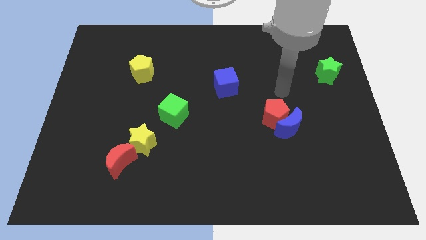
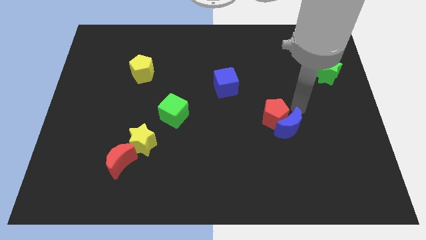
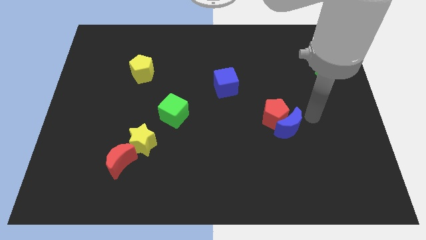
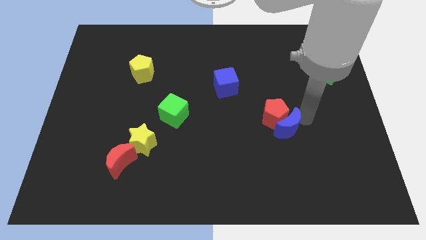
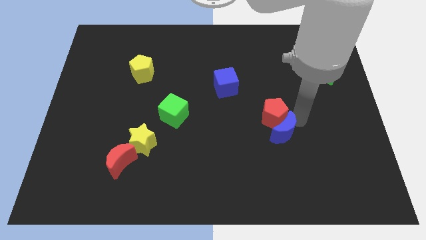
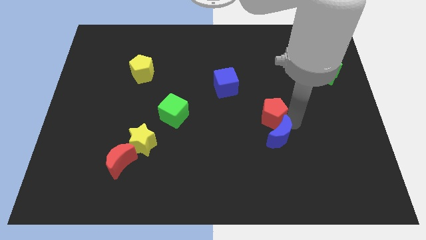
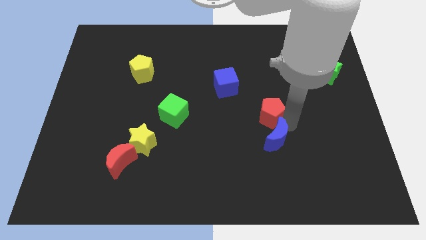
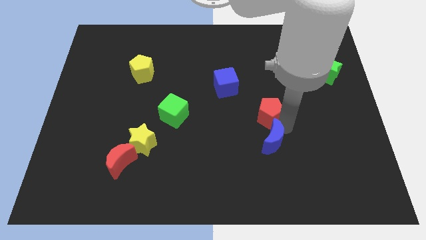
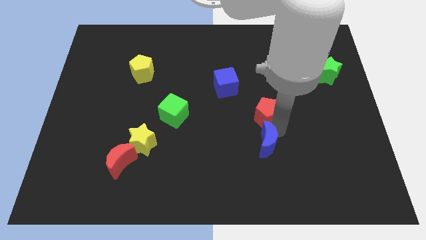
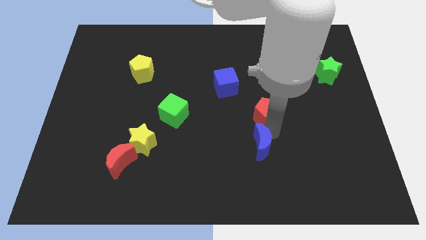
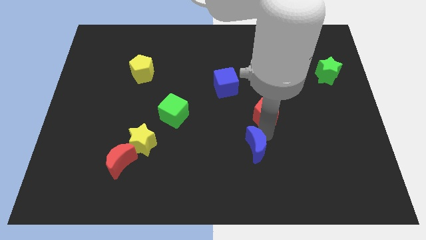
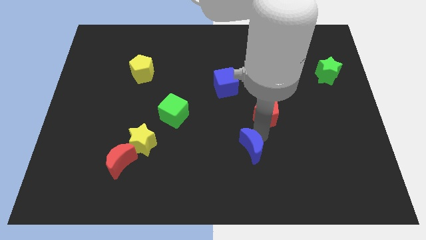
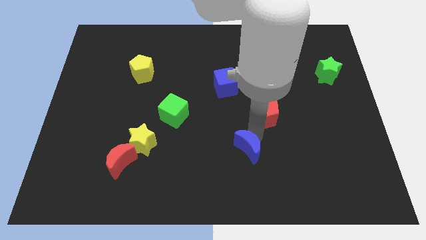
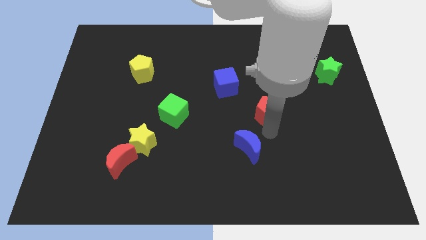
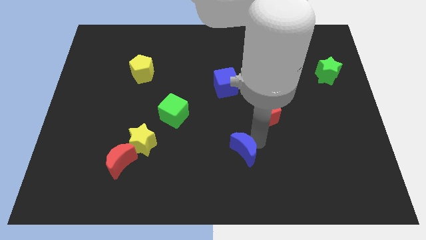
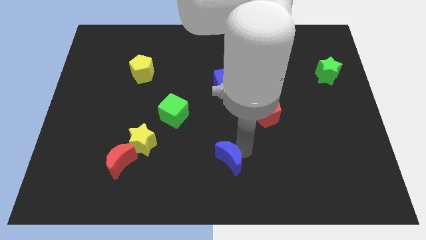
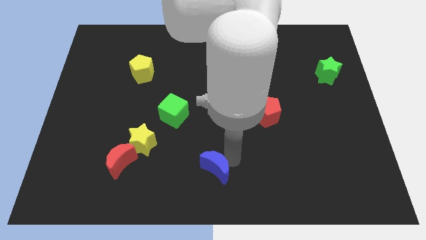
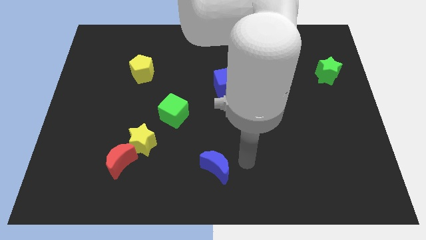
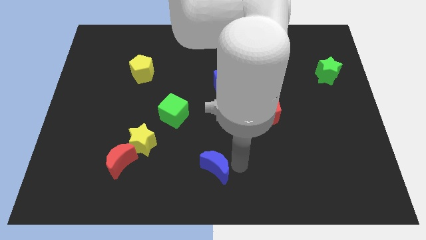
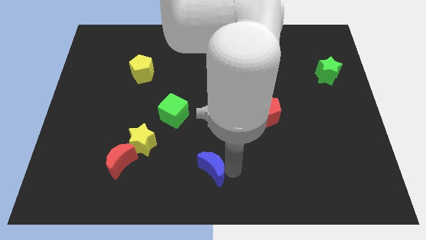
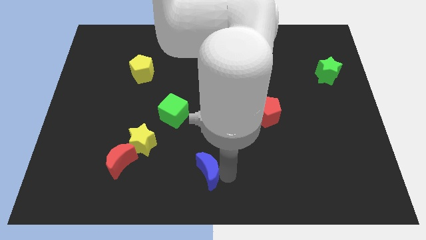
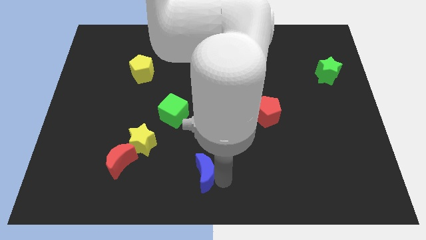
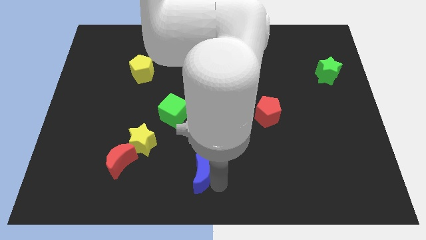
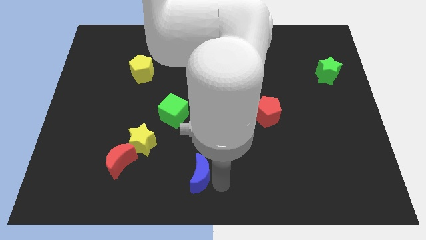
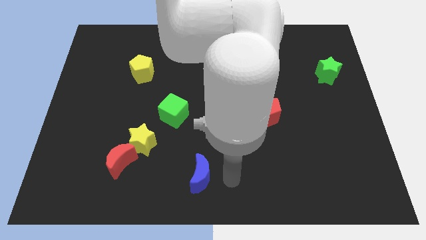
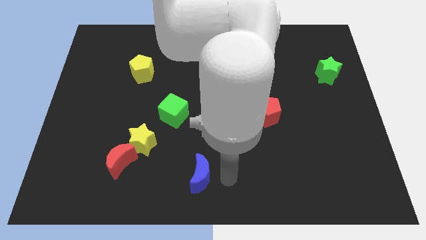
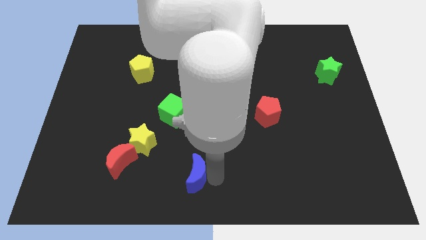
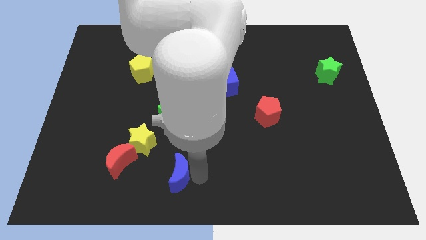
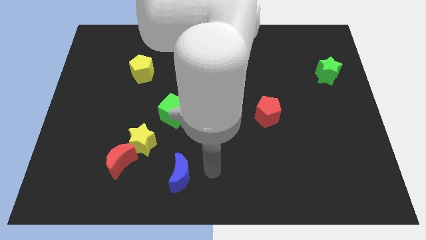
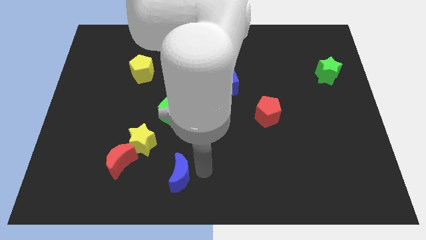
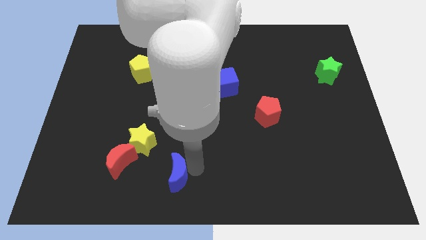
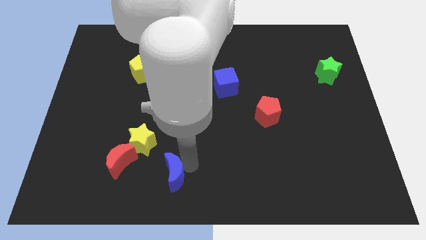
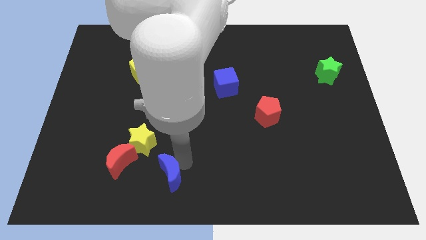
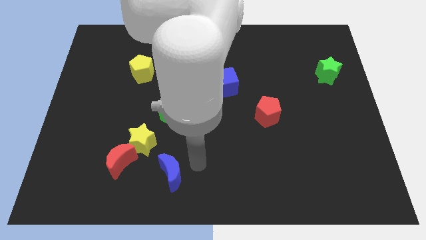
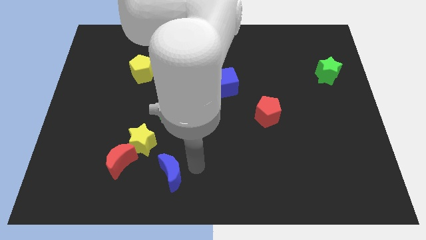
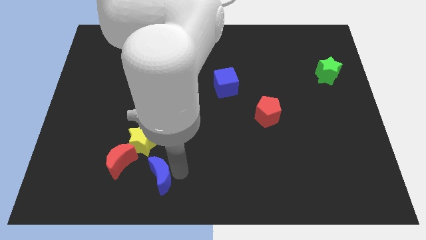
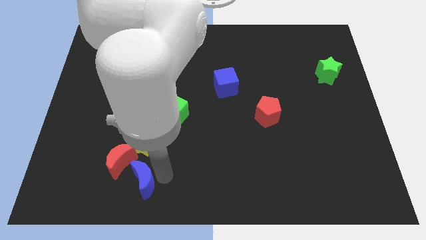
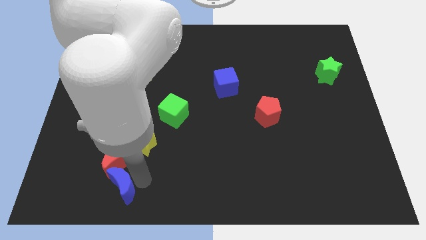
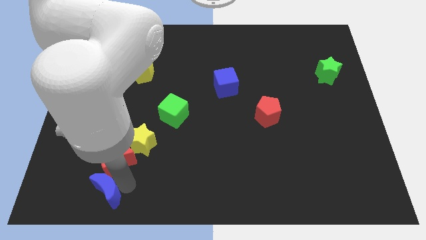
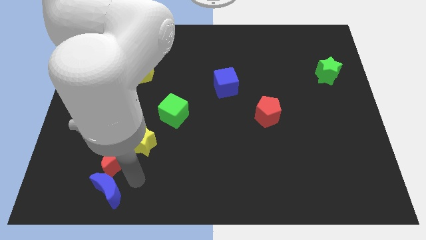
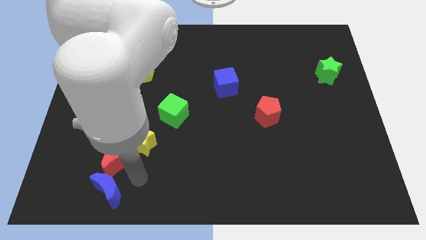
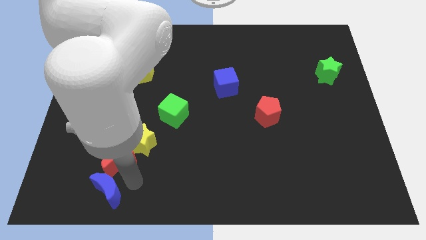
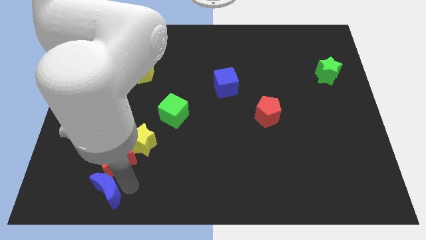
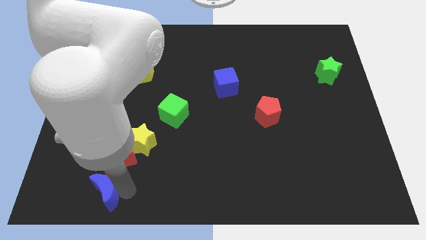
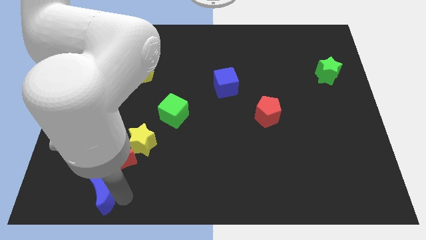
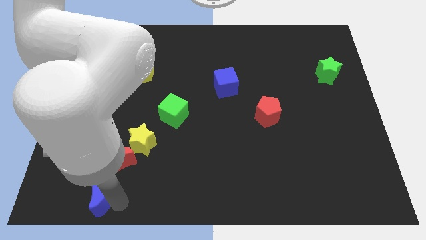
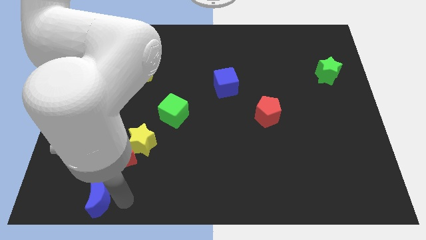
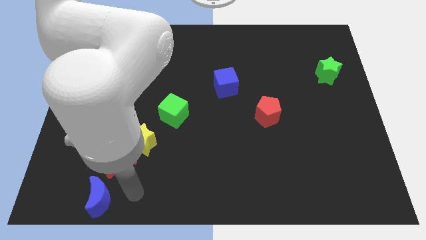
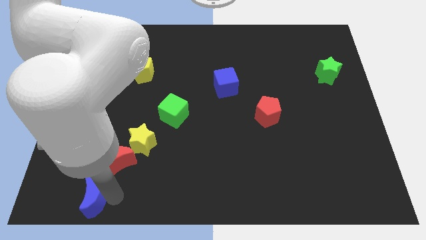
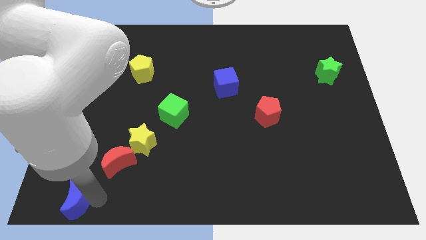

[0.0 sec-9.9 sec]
put the blue moon to the bottom left corner

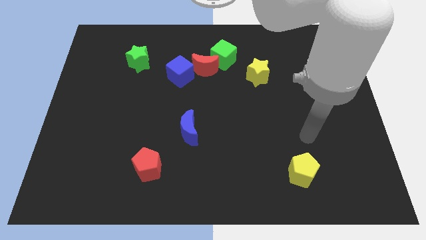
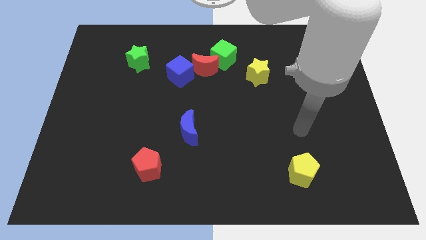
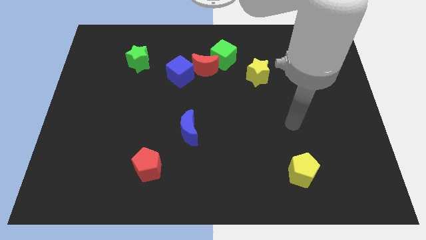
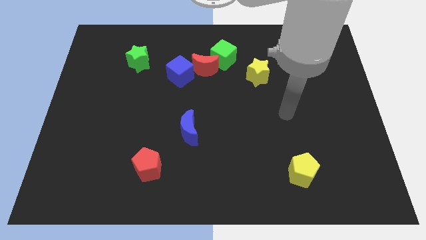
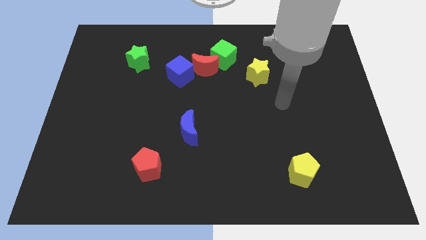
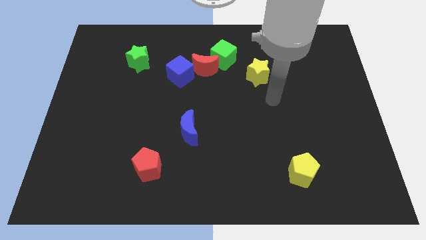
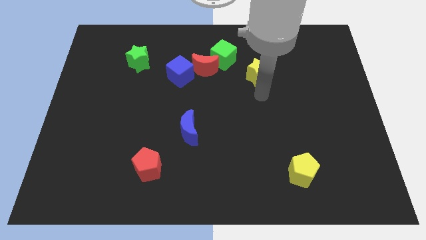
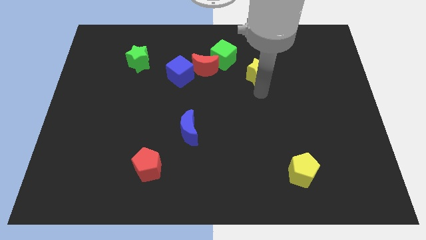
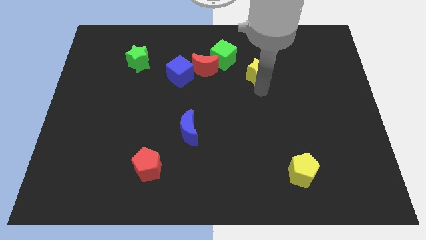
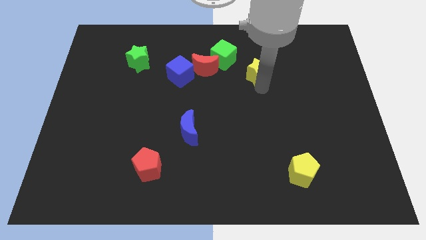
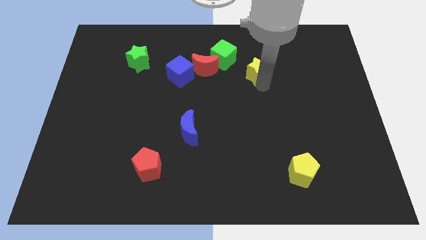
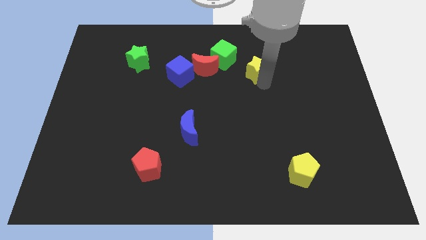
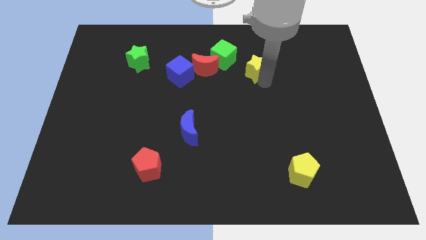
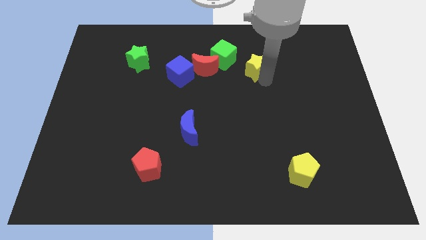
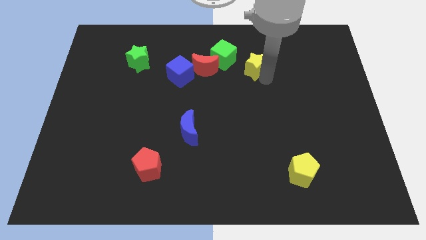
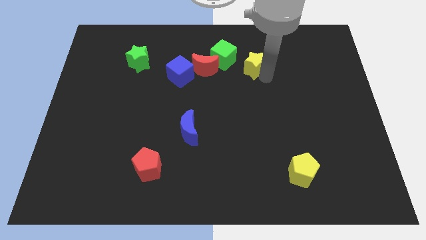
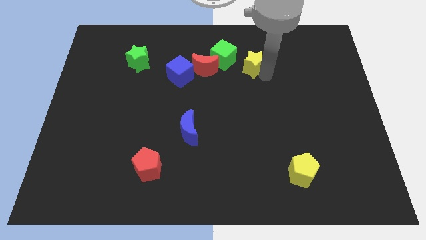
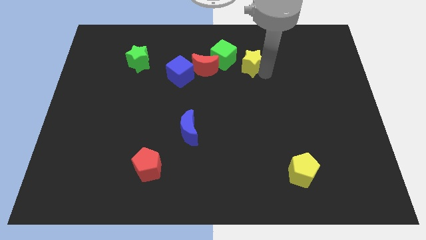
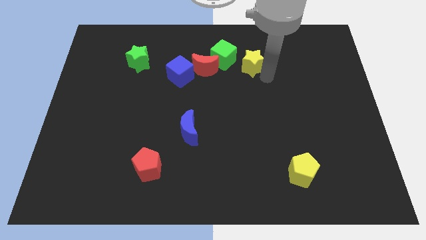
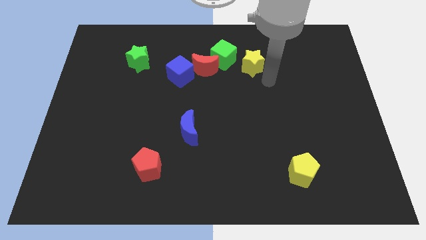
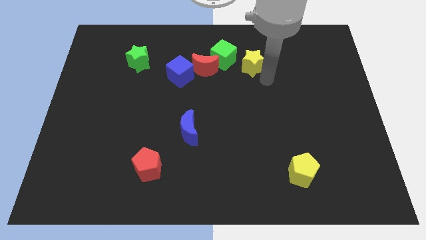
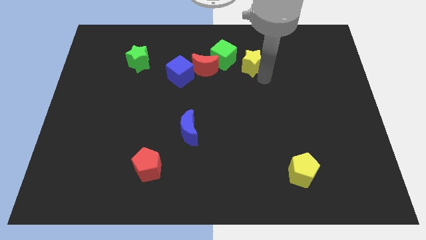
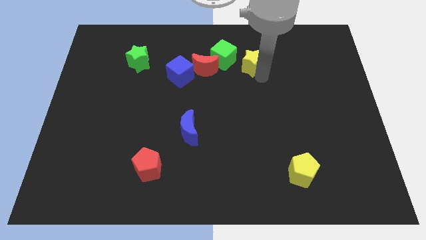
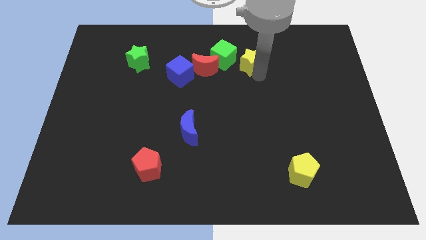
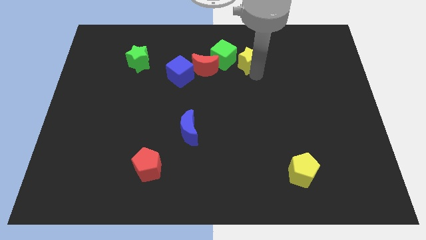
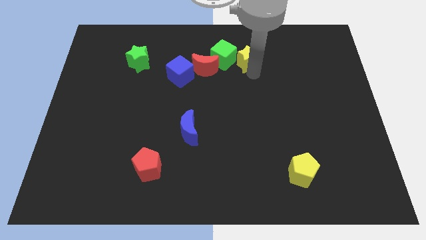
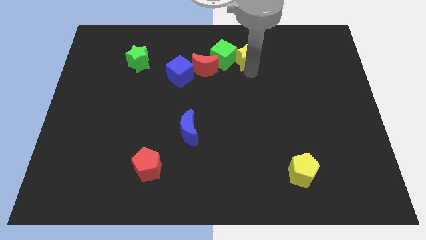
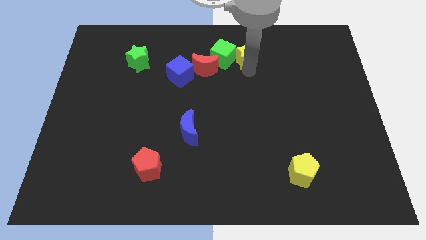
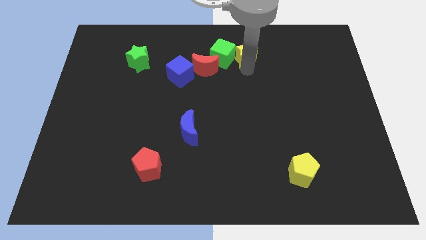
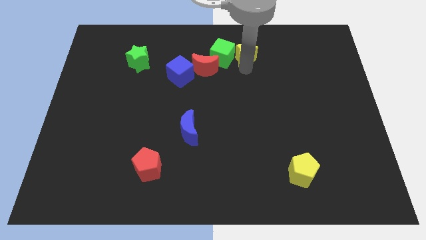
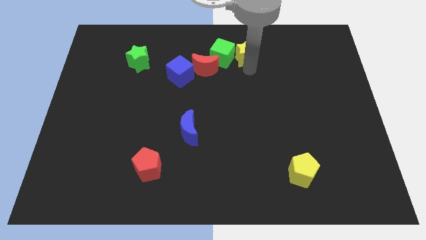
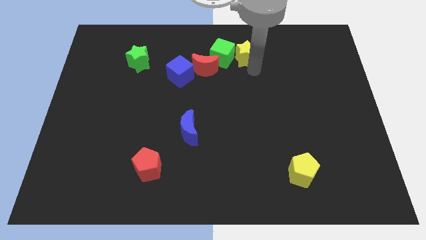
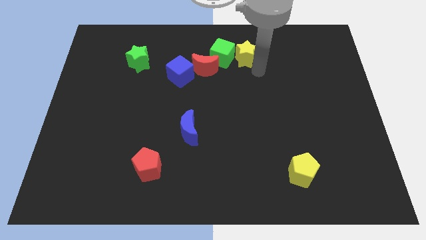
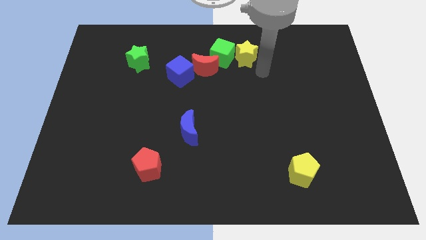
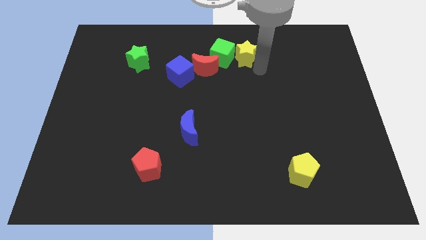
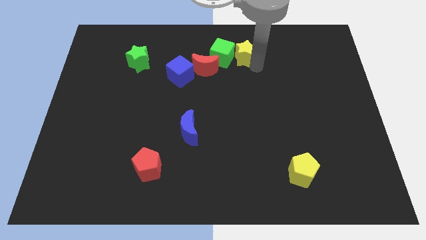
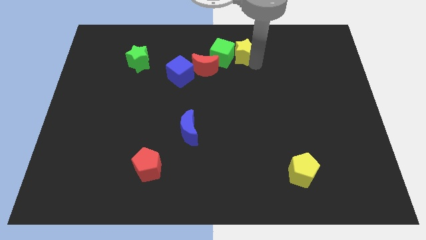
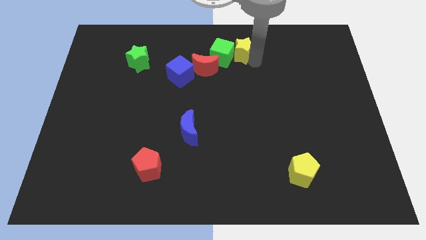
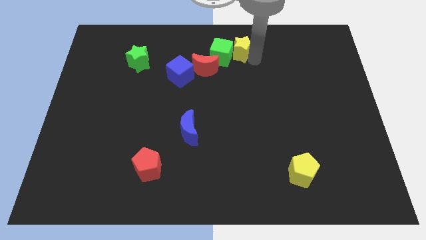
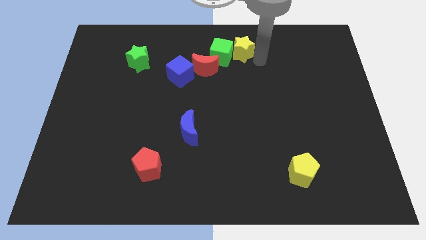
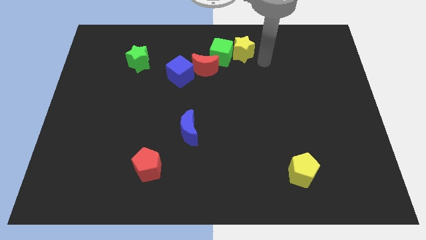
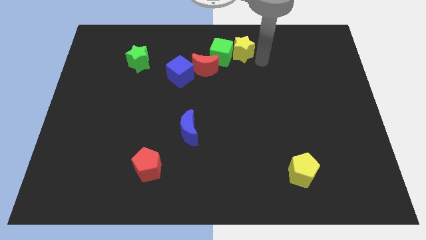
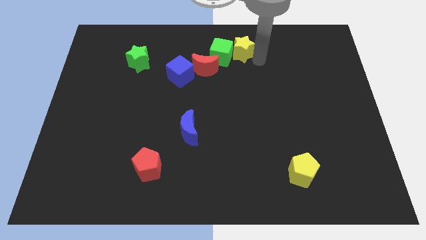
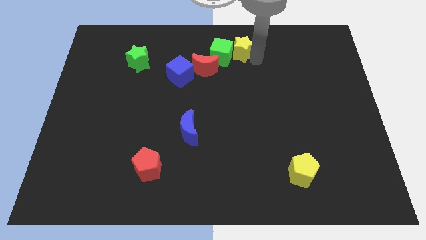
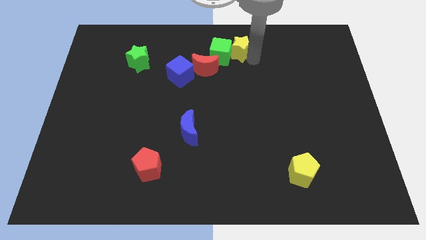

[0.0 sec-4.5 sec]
put the yellow star to the top side
